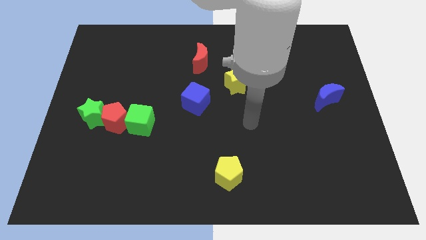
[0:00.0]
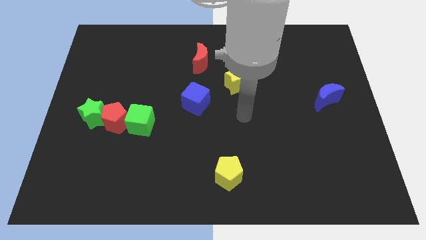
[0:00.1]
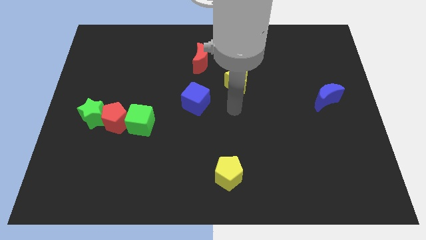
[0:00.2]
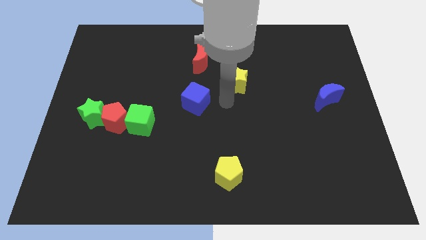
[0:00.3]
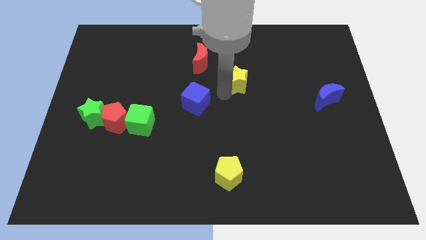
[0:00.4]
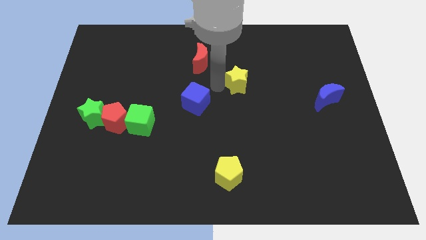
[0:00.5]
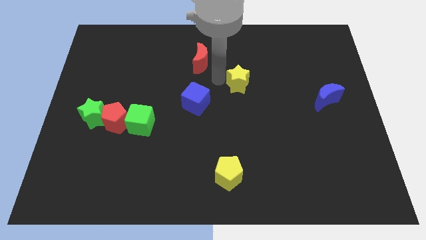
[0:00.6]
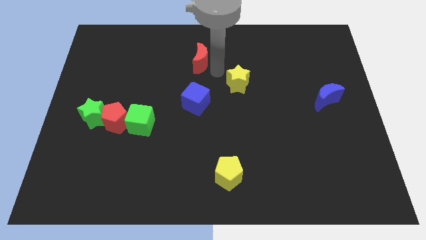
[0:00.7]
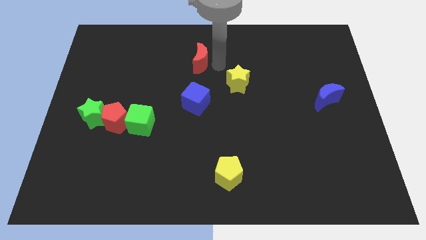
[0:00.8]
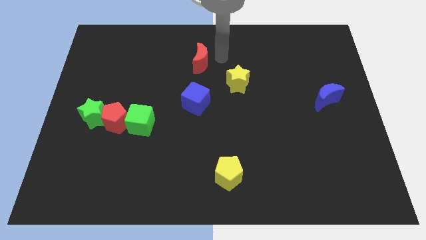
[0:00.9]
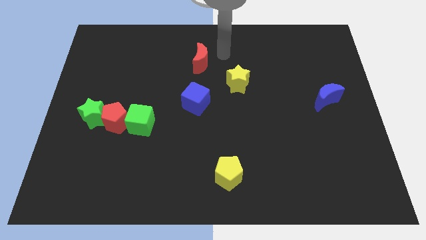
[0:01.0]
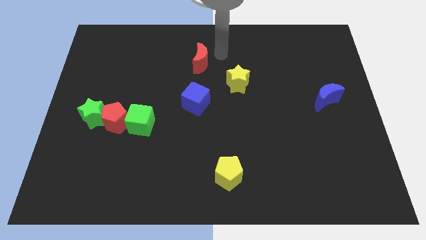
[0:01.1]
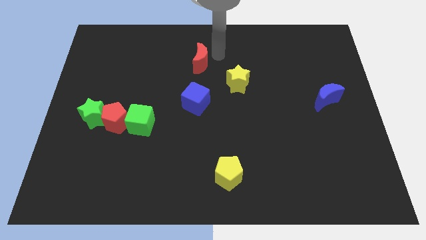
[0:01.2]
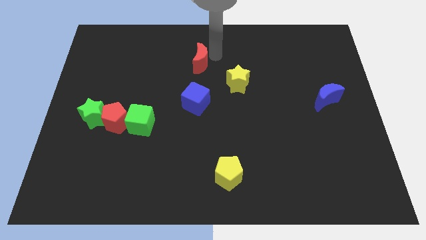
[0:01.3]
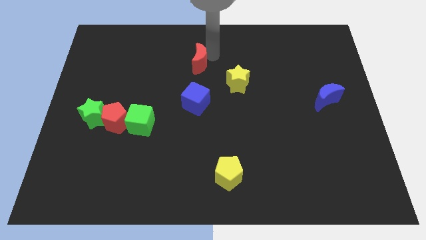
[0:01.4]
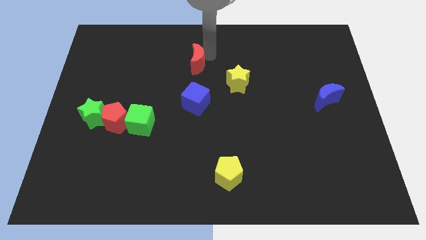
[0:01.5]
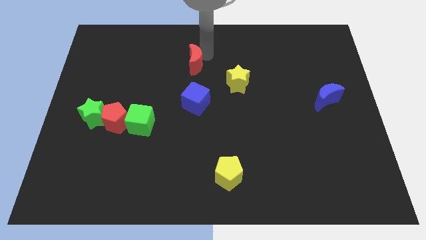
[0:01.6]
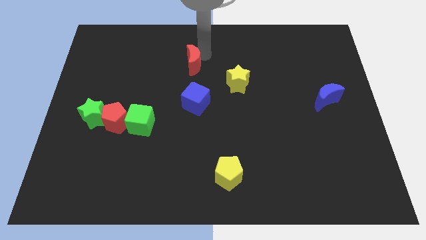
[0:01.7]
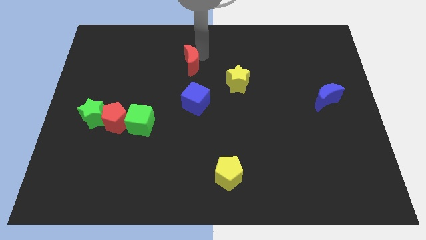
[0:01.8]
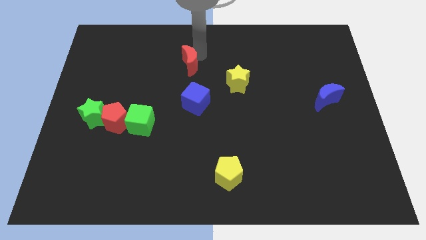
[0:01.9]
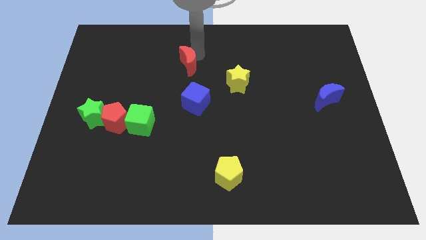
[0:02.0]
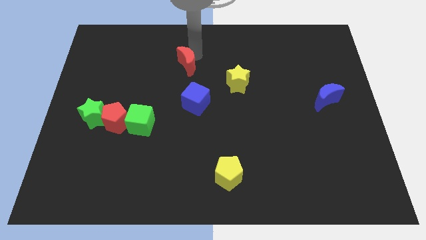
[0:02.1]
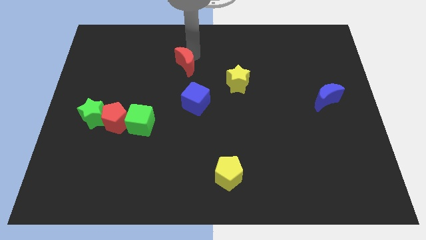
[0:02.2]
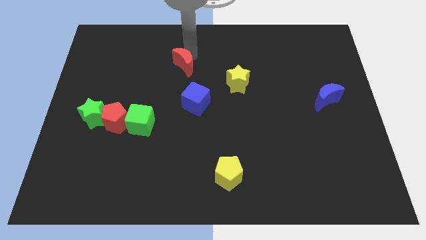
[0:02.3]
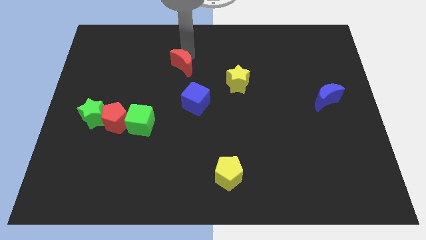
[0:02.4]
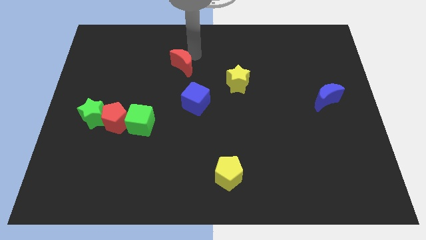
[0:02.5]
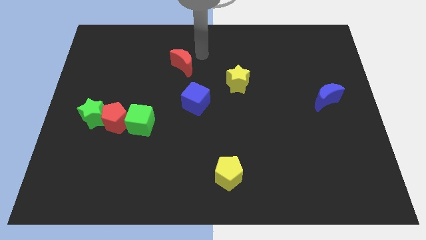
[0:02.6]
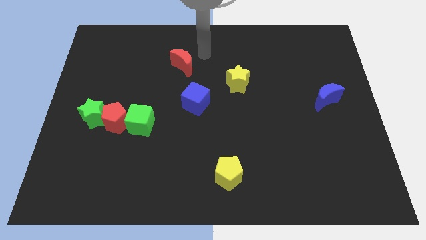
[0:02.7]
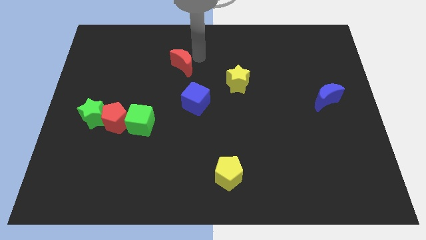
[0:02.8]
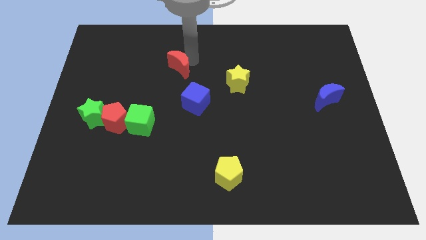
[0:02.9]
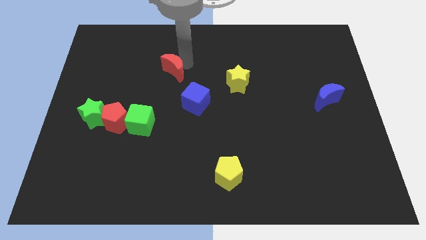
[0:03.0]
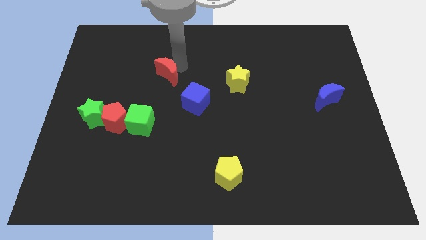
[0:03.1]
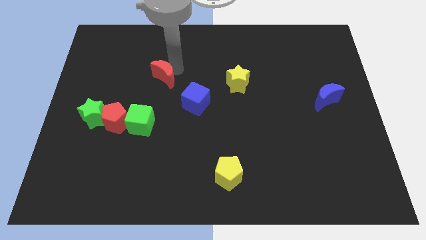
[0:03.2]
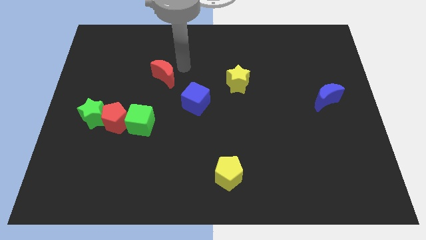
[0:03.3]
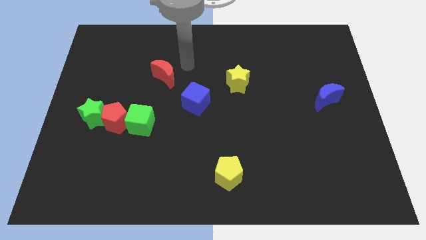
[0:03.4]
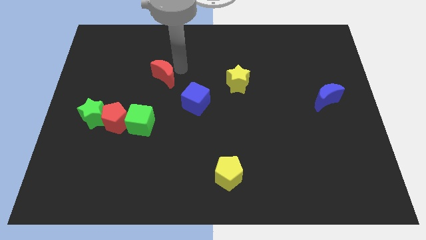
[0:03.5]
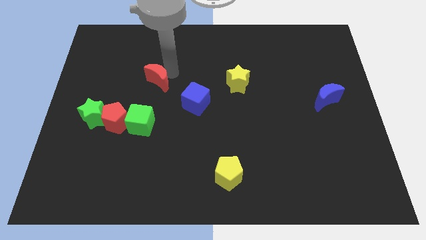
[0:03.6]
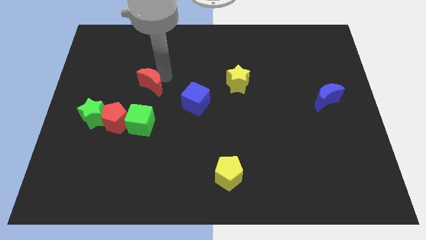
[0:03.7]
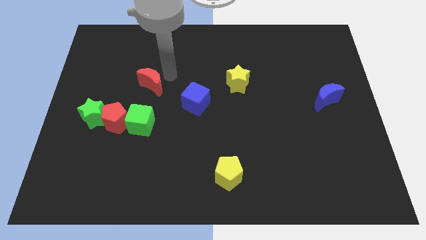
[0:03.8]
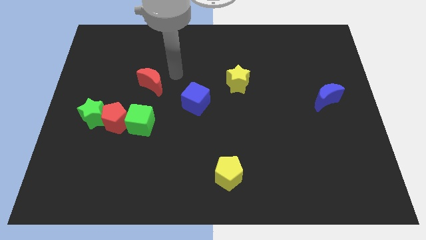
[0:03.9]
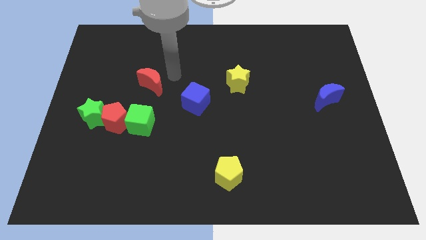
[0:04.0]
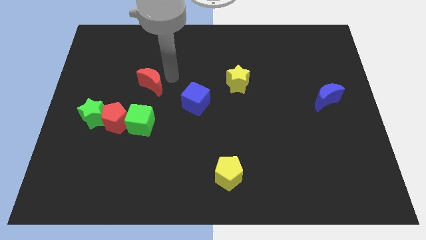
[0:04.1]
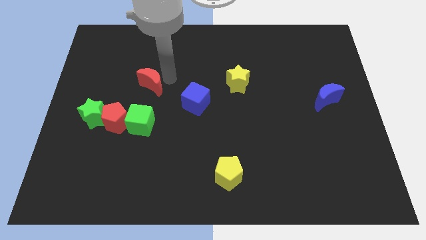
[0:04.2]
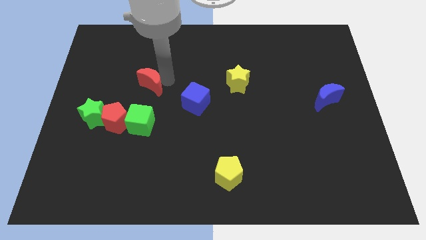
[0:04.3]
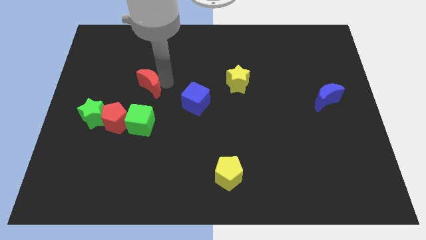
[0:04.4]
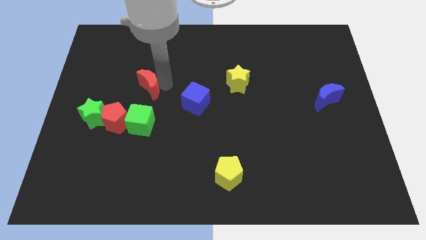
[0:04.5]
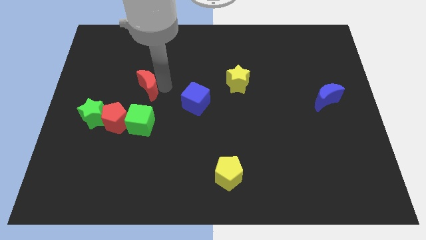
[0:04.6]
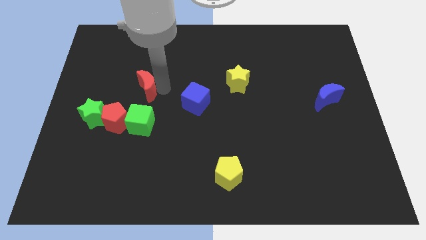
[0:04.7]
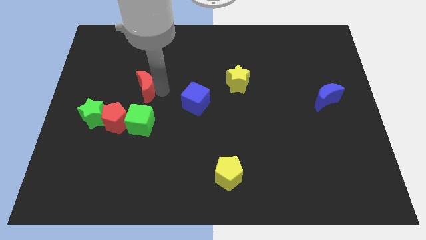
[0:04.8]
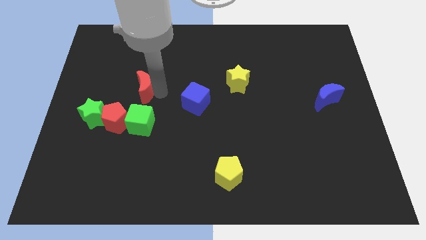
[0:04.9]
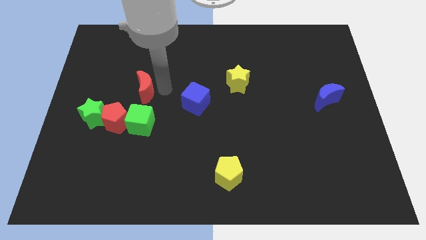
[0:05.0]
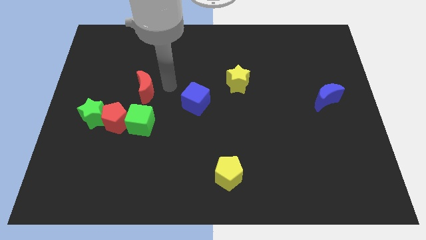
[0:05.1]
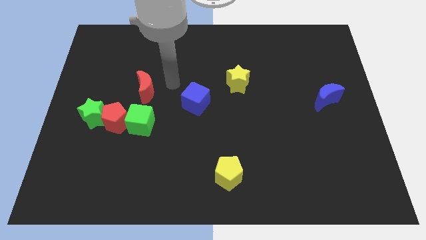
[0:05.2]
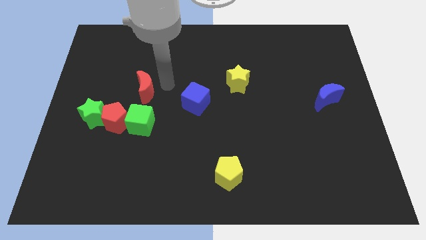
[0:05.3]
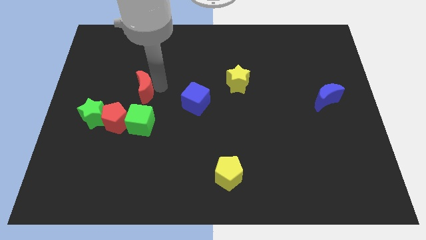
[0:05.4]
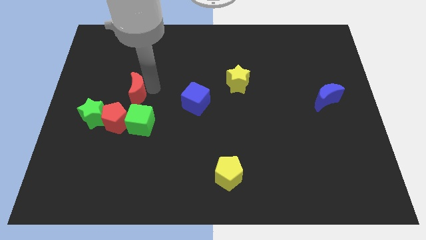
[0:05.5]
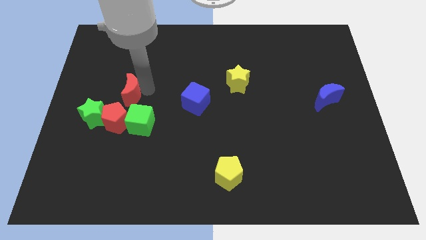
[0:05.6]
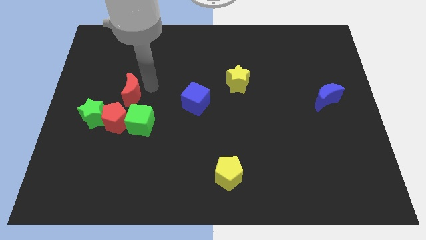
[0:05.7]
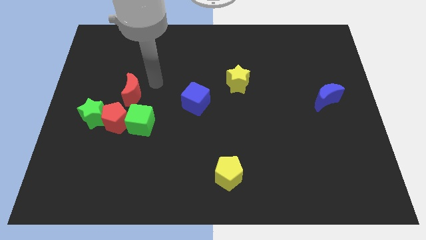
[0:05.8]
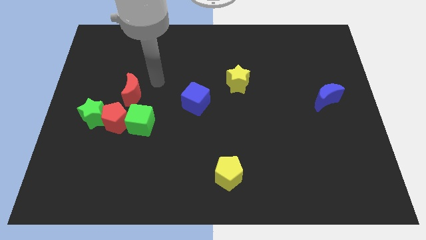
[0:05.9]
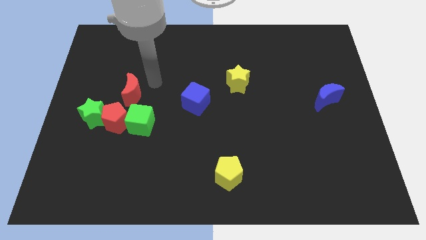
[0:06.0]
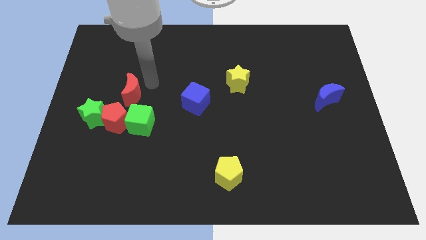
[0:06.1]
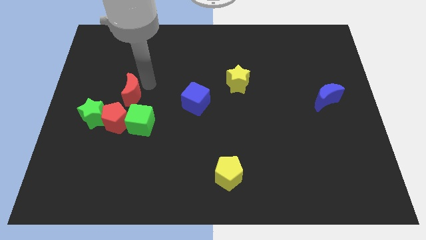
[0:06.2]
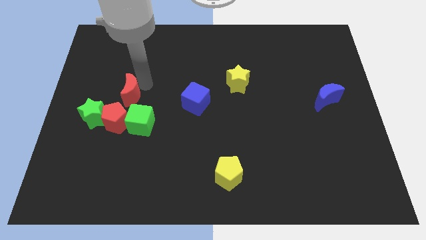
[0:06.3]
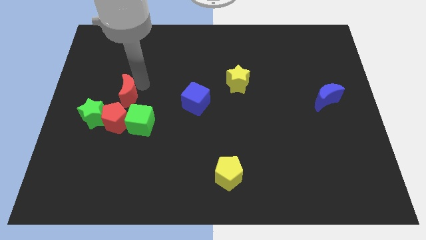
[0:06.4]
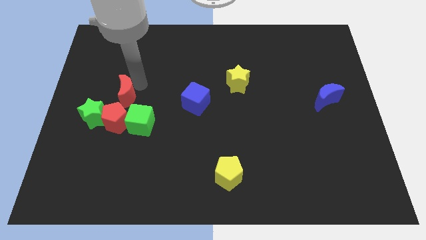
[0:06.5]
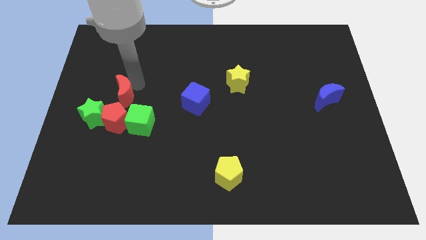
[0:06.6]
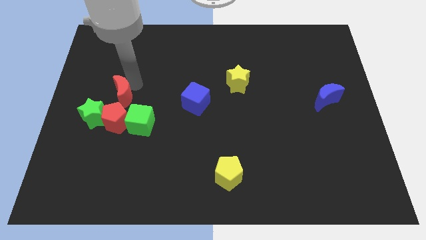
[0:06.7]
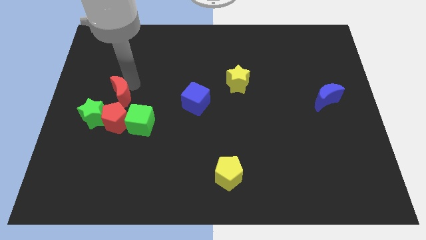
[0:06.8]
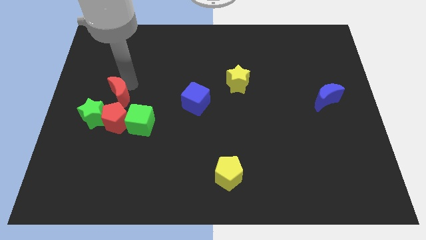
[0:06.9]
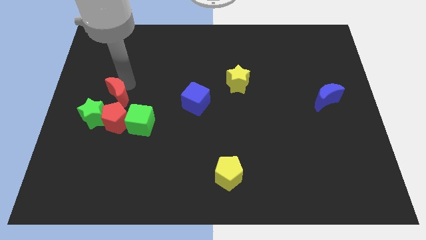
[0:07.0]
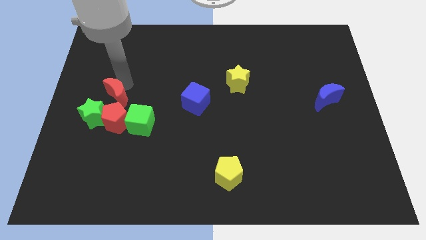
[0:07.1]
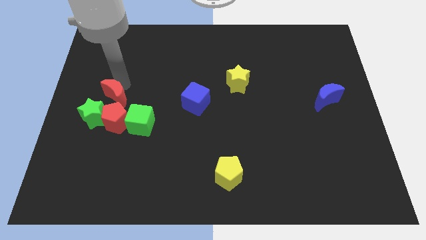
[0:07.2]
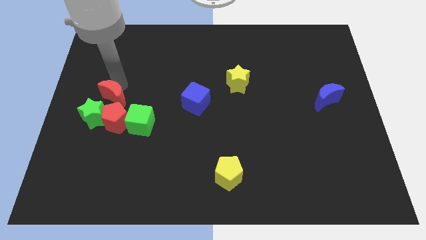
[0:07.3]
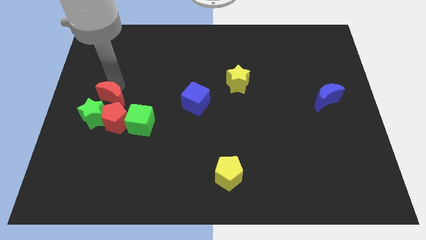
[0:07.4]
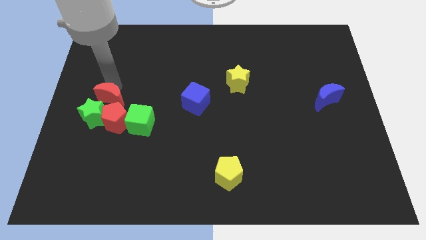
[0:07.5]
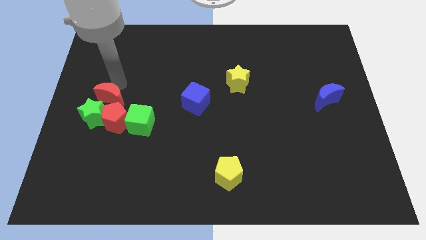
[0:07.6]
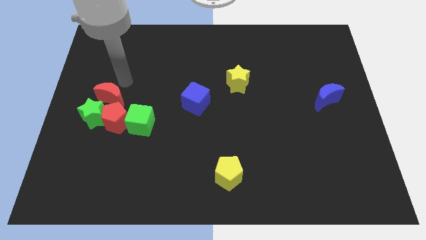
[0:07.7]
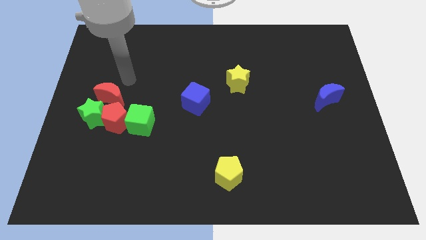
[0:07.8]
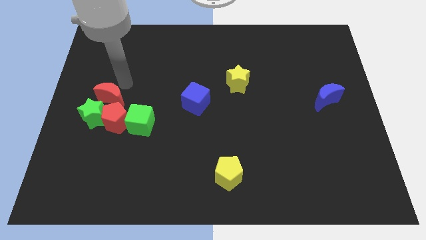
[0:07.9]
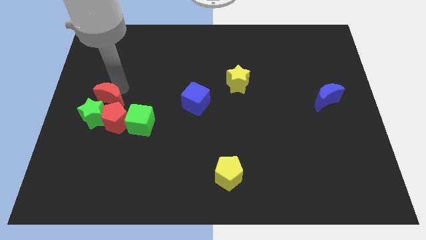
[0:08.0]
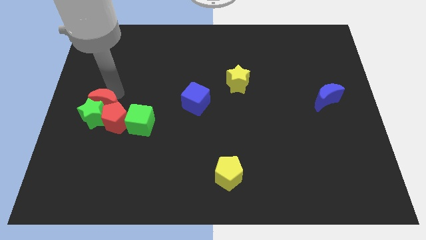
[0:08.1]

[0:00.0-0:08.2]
move the red moon to the green star

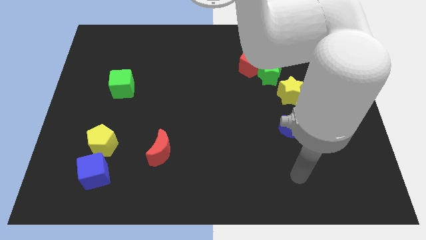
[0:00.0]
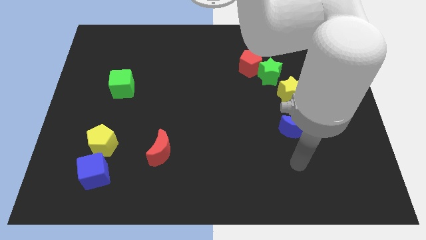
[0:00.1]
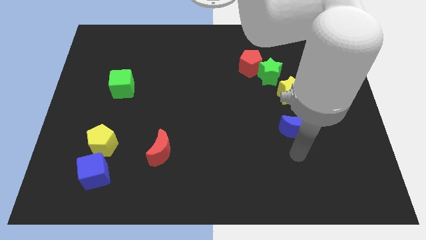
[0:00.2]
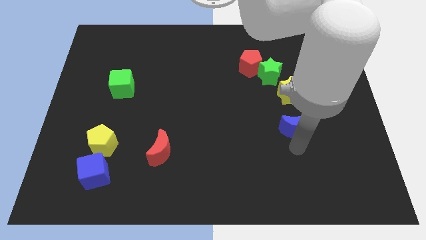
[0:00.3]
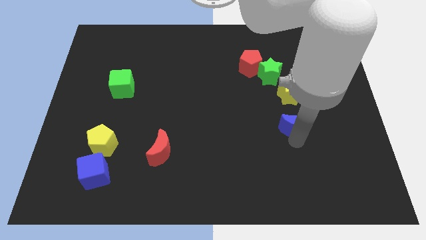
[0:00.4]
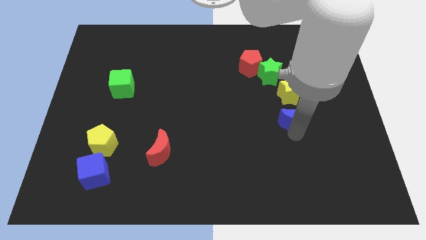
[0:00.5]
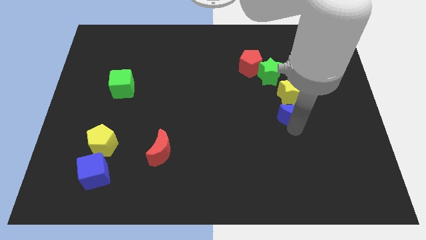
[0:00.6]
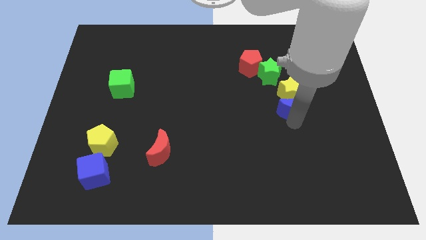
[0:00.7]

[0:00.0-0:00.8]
move the blue moon to the yellow star
